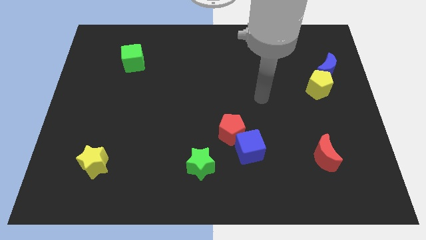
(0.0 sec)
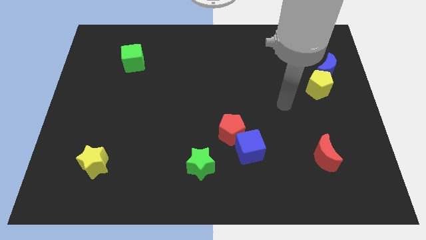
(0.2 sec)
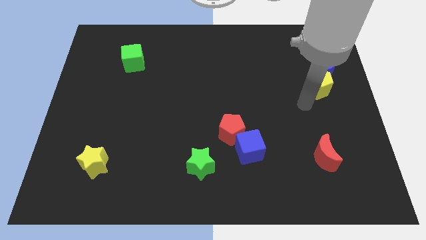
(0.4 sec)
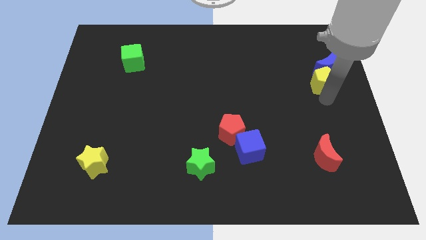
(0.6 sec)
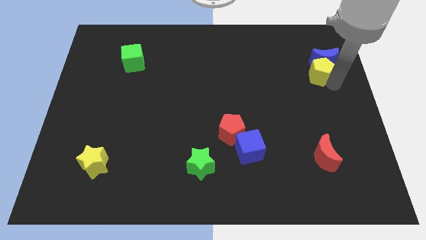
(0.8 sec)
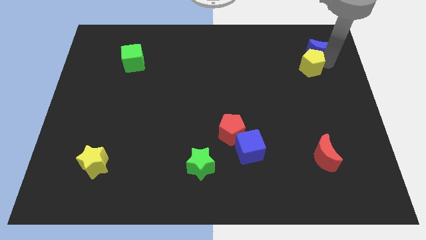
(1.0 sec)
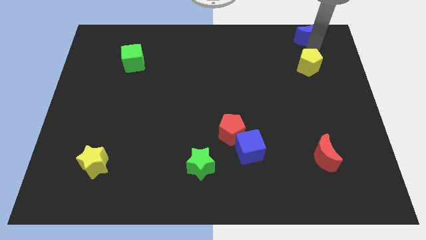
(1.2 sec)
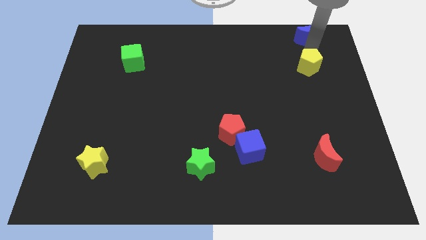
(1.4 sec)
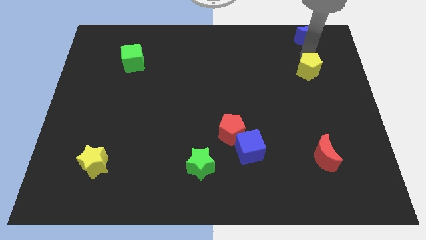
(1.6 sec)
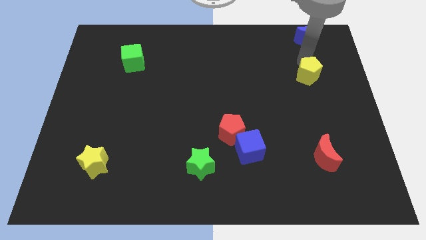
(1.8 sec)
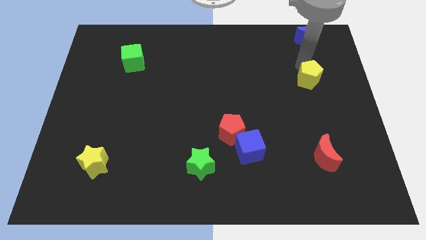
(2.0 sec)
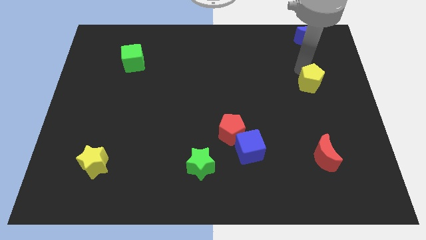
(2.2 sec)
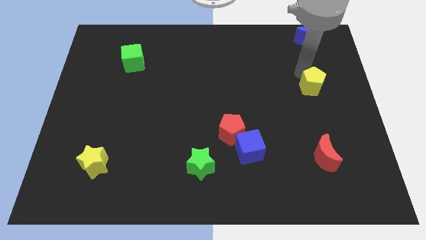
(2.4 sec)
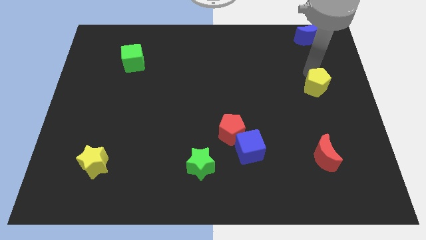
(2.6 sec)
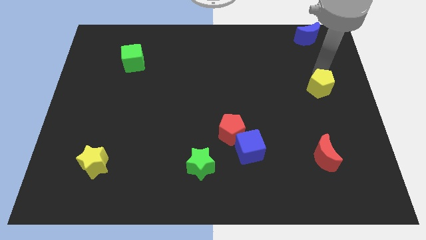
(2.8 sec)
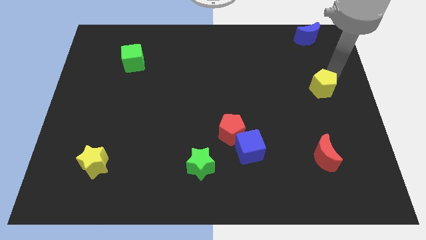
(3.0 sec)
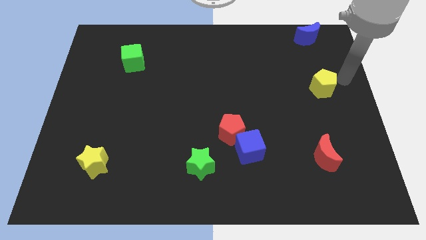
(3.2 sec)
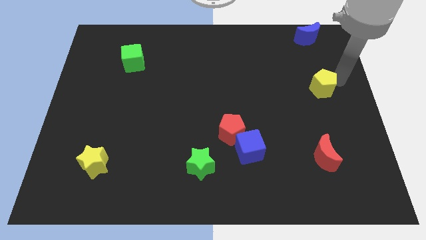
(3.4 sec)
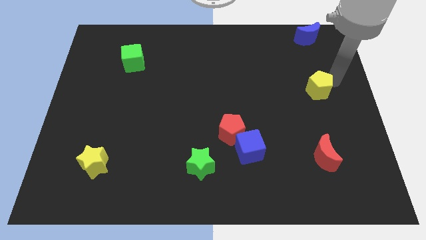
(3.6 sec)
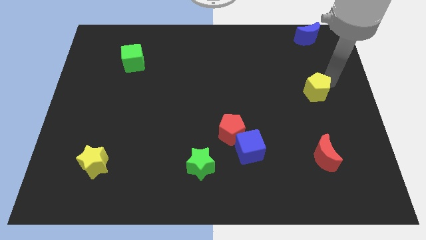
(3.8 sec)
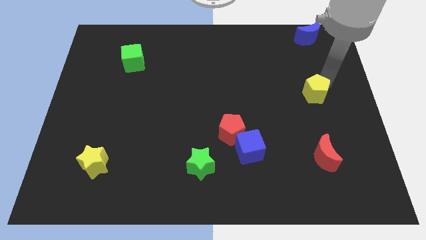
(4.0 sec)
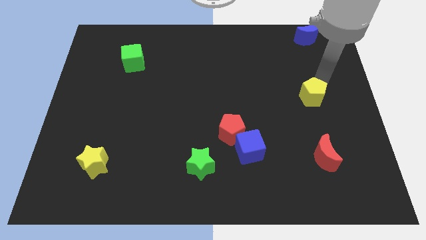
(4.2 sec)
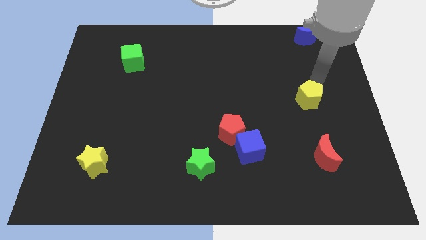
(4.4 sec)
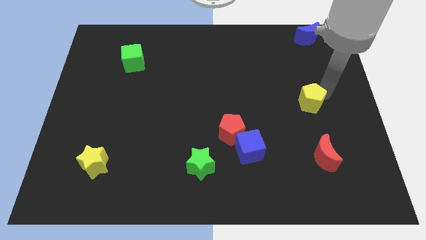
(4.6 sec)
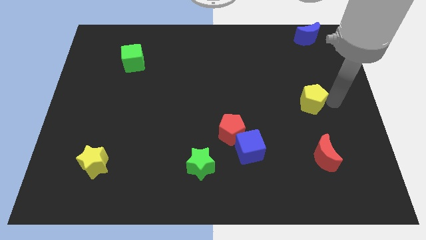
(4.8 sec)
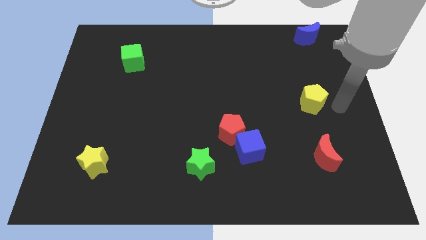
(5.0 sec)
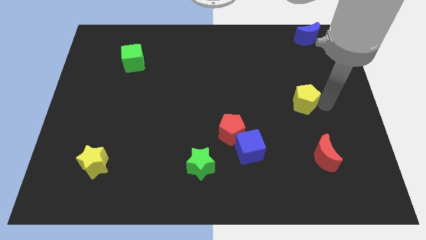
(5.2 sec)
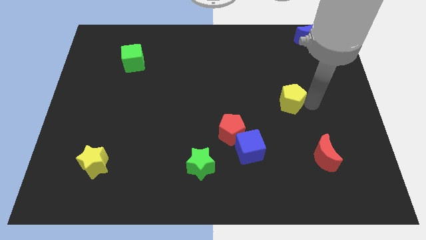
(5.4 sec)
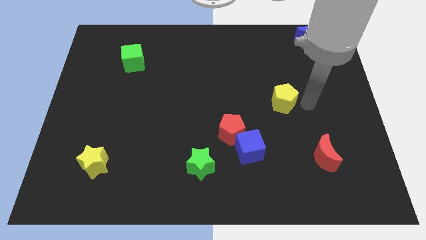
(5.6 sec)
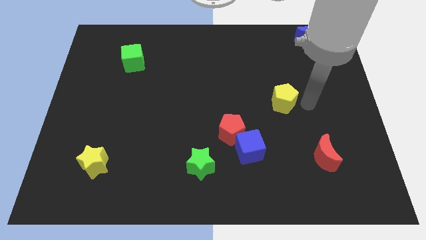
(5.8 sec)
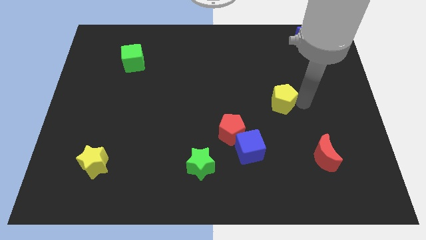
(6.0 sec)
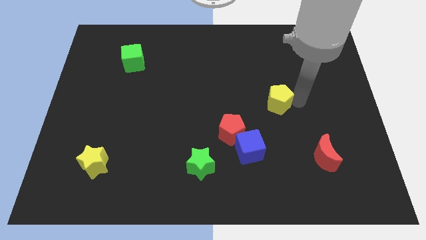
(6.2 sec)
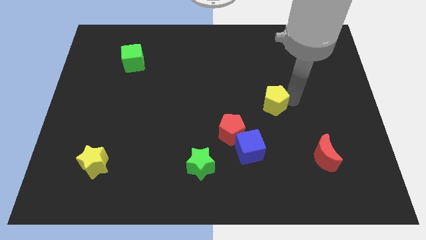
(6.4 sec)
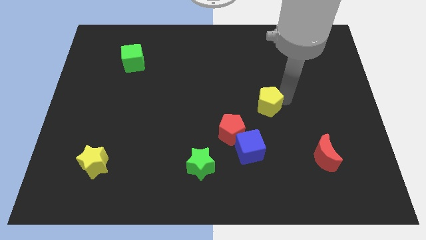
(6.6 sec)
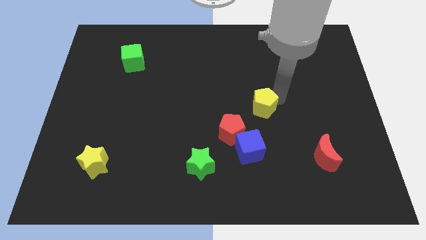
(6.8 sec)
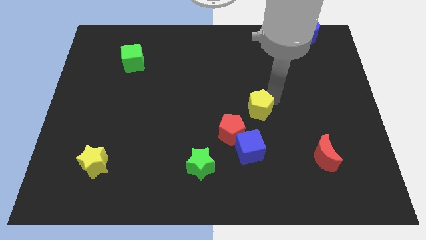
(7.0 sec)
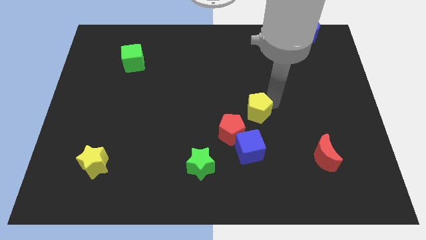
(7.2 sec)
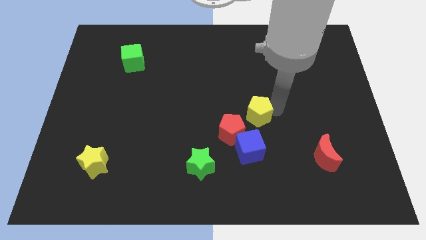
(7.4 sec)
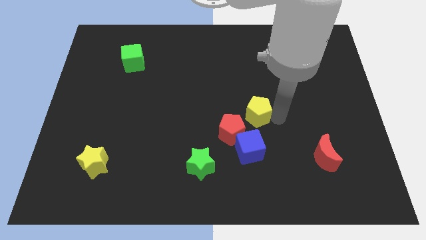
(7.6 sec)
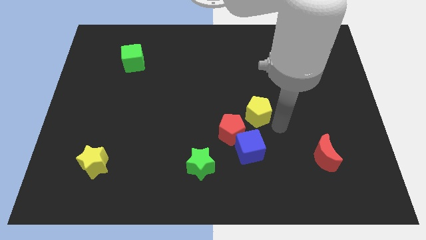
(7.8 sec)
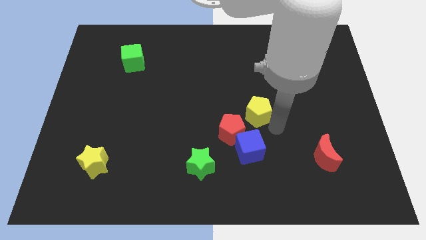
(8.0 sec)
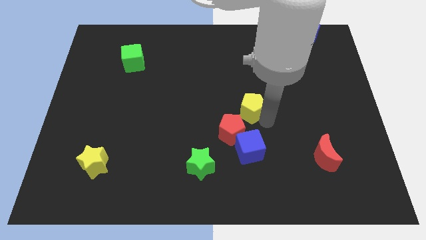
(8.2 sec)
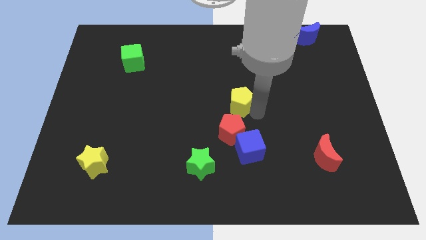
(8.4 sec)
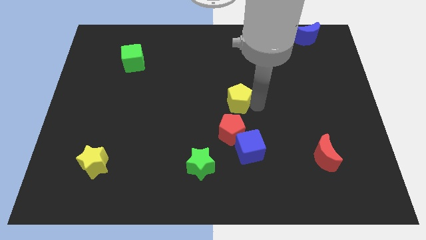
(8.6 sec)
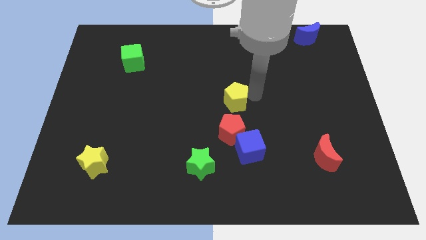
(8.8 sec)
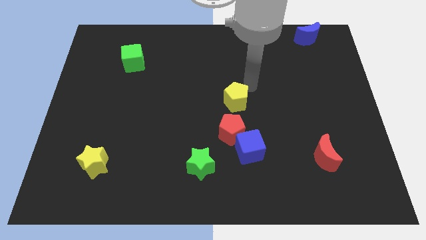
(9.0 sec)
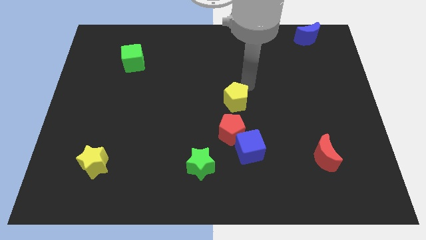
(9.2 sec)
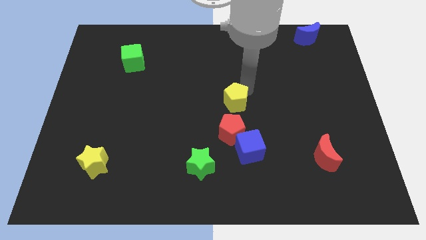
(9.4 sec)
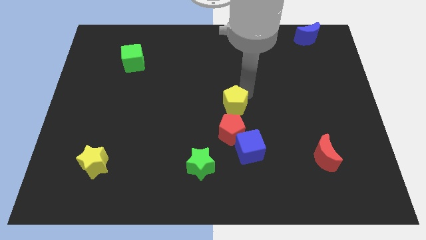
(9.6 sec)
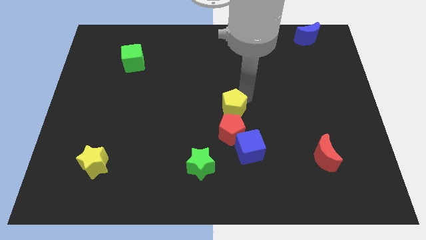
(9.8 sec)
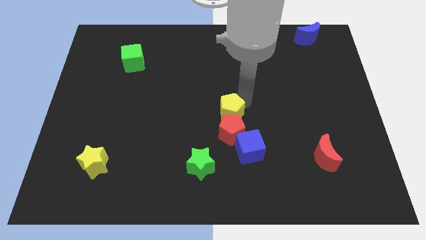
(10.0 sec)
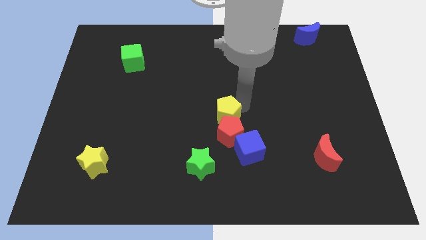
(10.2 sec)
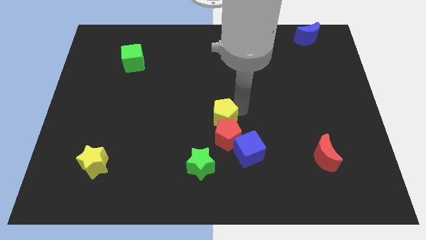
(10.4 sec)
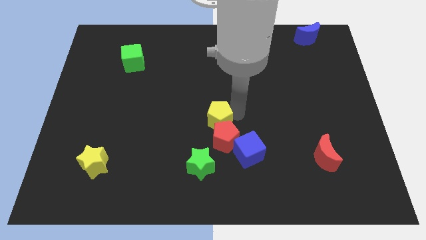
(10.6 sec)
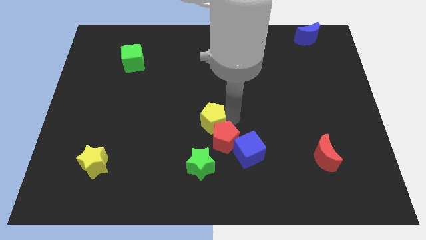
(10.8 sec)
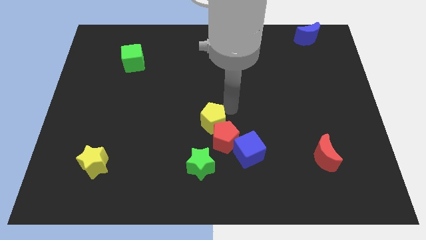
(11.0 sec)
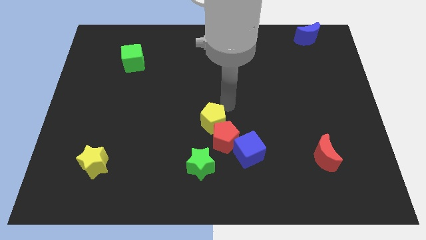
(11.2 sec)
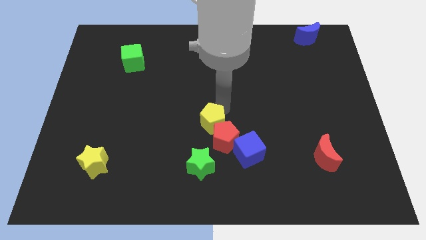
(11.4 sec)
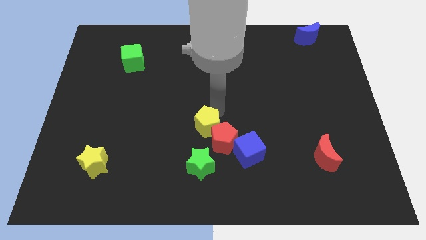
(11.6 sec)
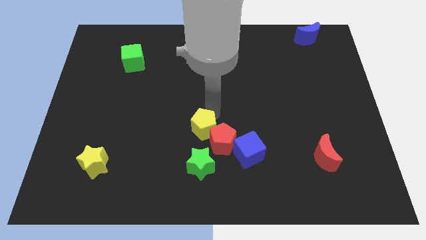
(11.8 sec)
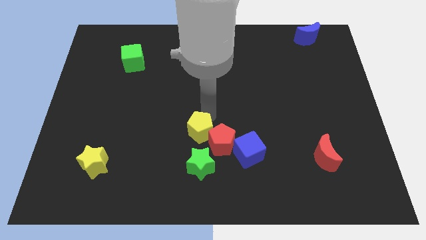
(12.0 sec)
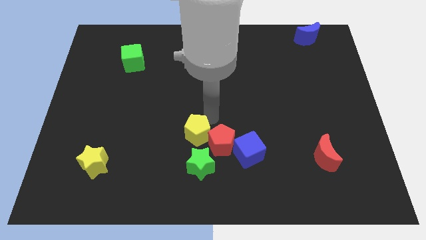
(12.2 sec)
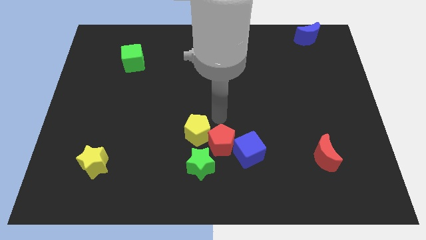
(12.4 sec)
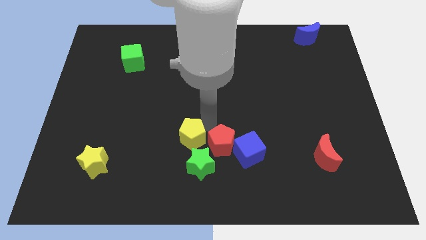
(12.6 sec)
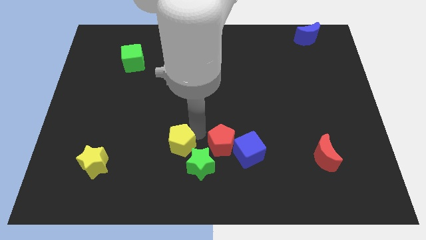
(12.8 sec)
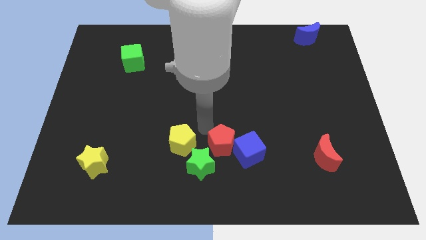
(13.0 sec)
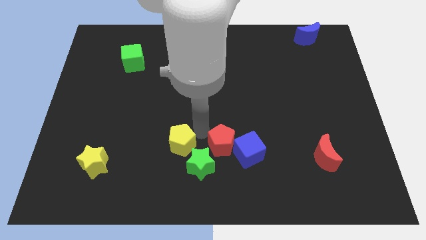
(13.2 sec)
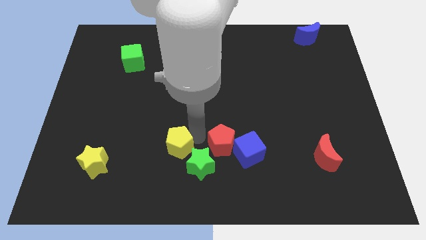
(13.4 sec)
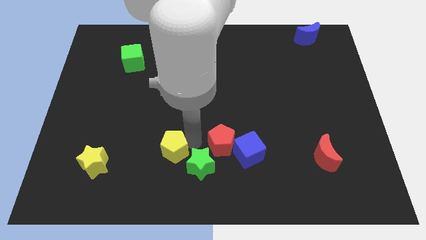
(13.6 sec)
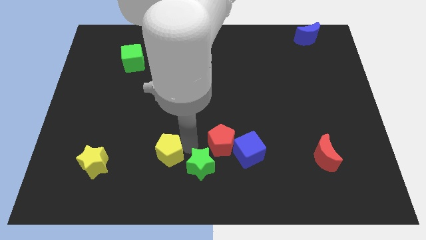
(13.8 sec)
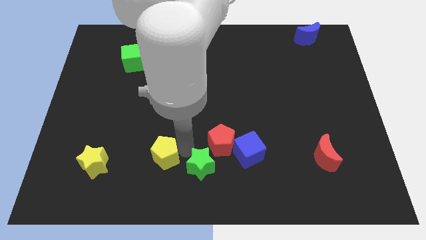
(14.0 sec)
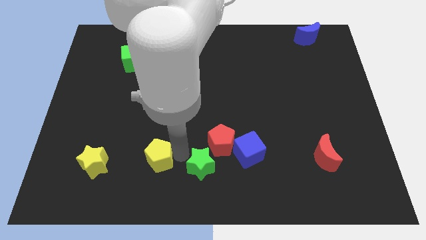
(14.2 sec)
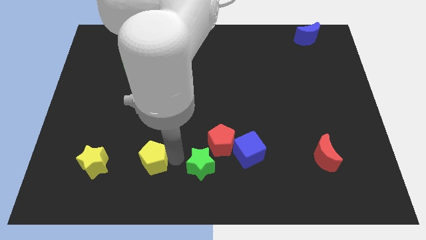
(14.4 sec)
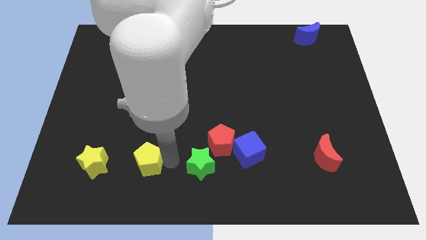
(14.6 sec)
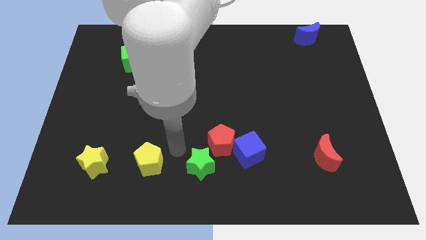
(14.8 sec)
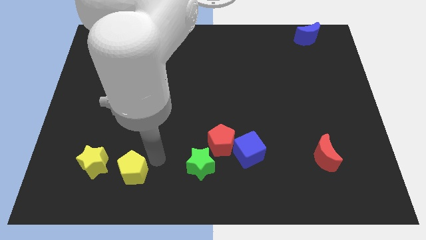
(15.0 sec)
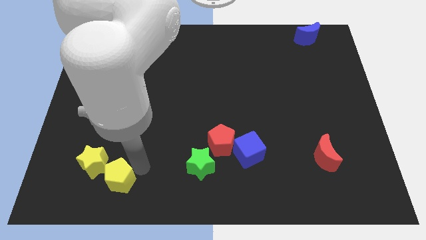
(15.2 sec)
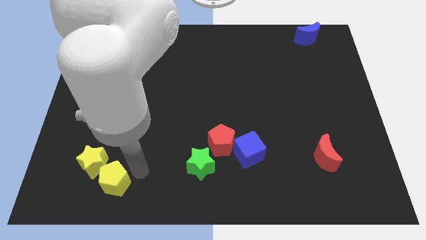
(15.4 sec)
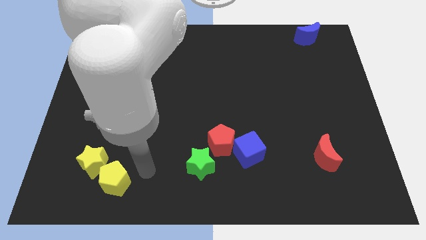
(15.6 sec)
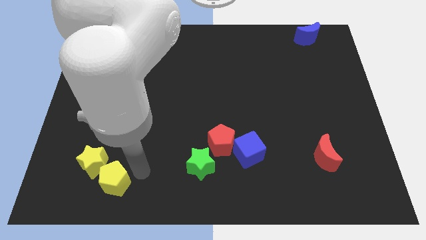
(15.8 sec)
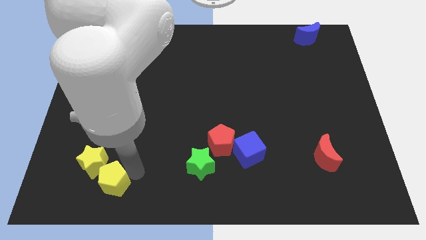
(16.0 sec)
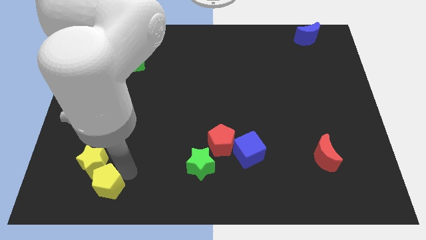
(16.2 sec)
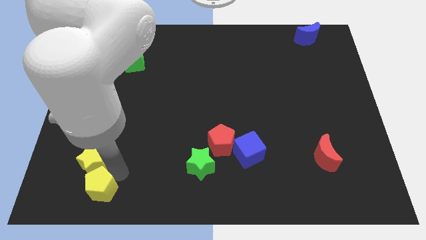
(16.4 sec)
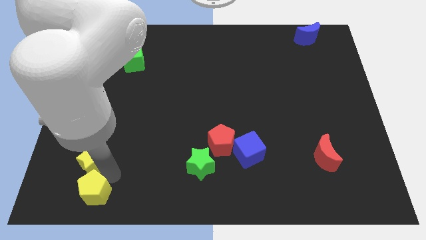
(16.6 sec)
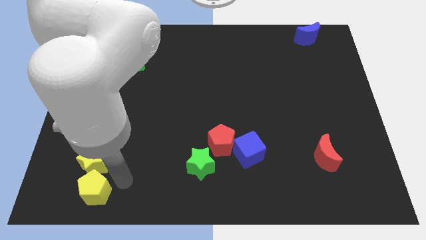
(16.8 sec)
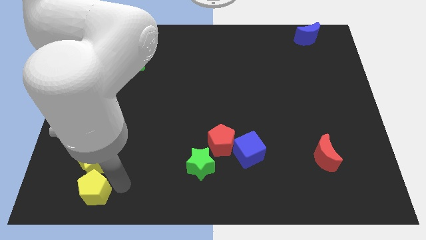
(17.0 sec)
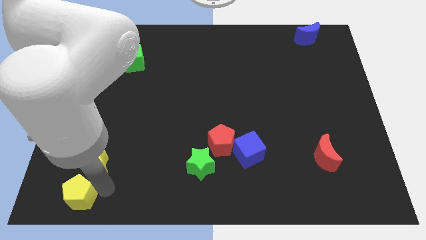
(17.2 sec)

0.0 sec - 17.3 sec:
push the yellow pentagon to the lower left corner
